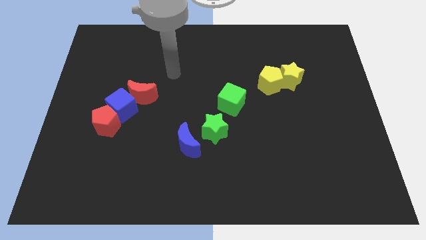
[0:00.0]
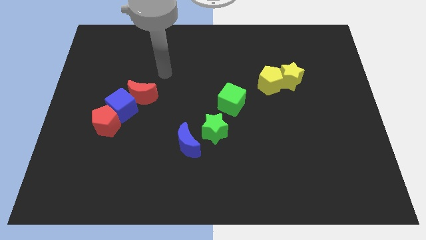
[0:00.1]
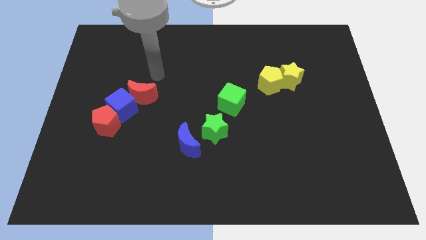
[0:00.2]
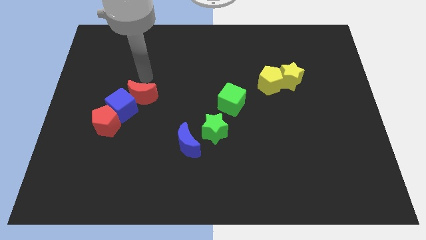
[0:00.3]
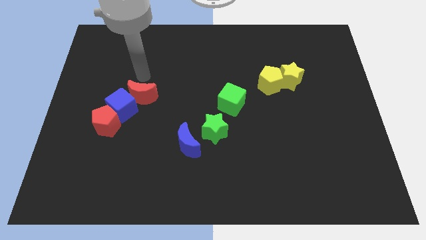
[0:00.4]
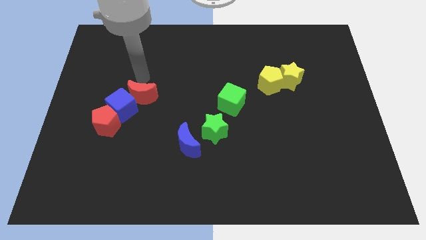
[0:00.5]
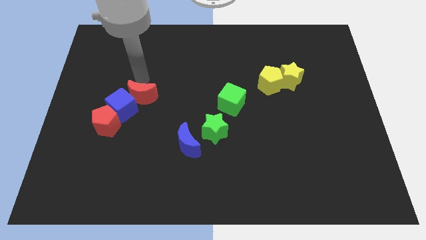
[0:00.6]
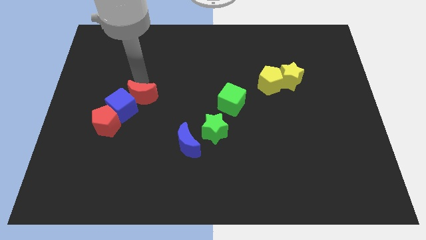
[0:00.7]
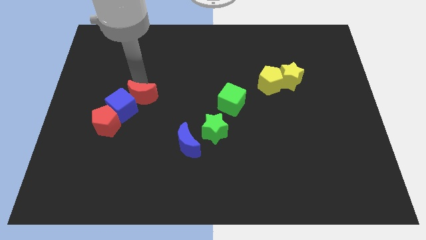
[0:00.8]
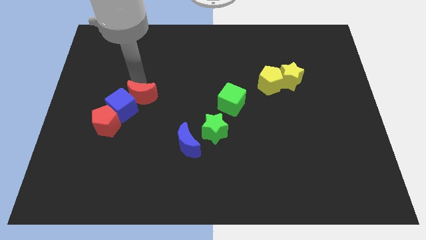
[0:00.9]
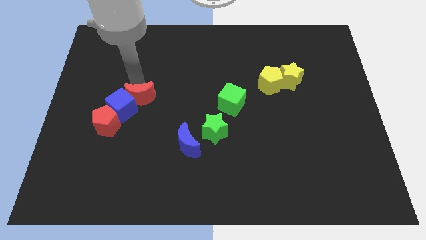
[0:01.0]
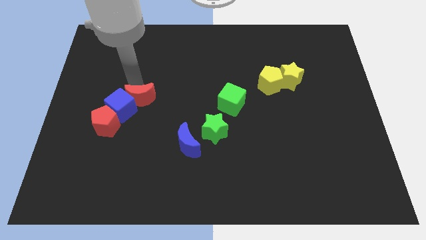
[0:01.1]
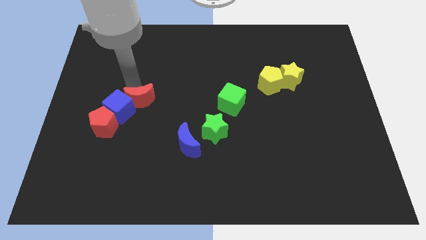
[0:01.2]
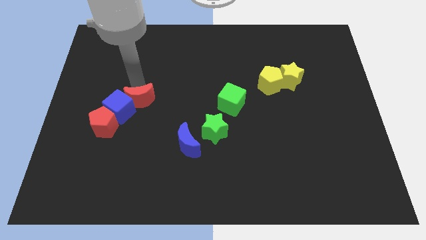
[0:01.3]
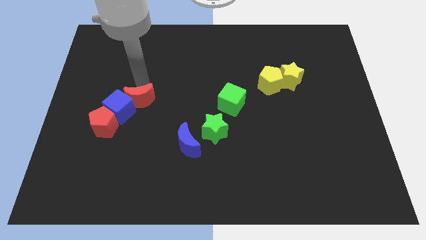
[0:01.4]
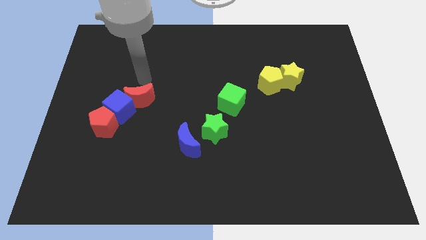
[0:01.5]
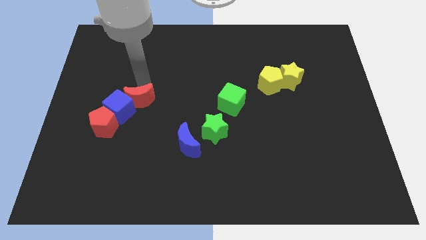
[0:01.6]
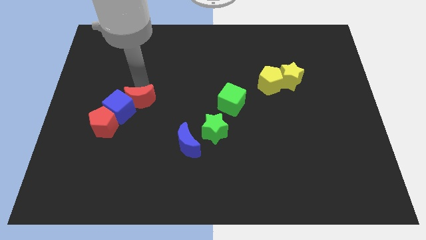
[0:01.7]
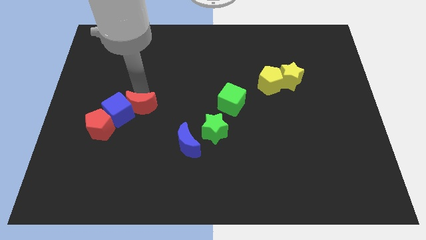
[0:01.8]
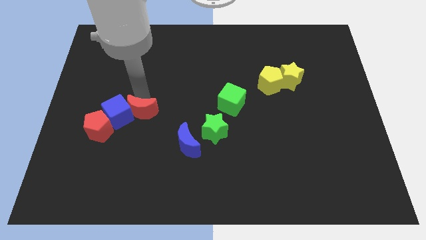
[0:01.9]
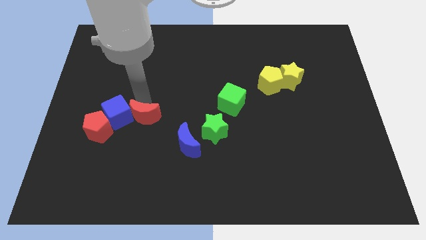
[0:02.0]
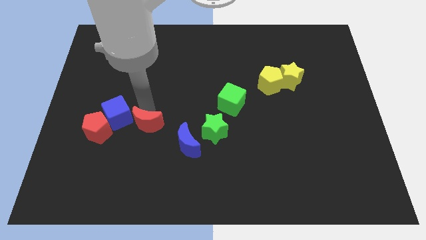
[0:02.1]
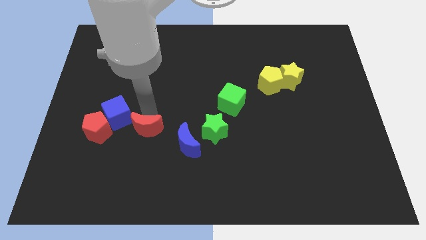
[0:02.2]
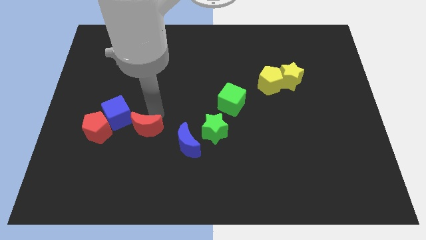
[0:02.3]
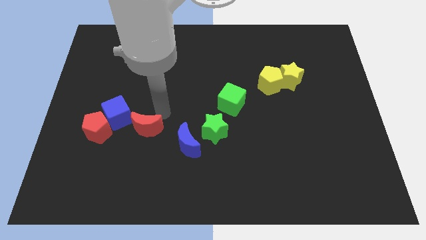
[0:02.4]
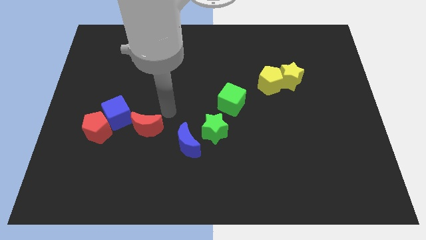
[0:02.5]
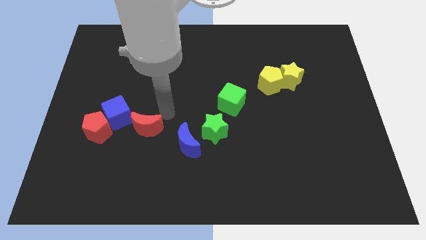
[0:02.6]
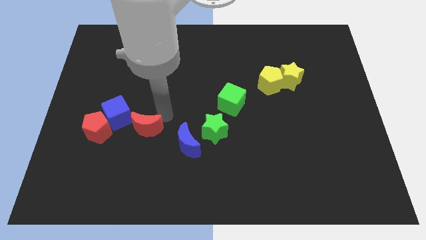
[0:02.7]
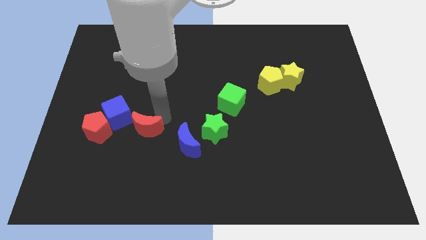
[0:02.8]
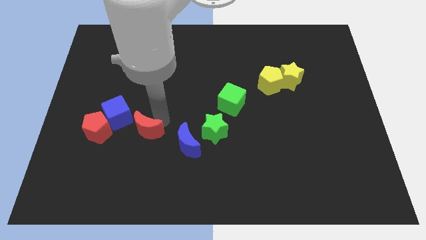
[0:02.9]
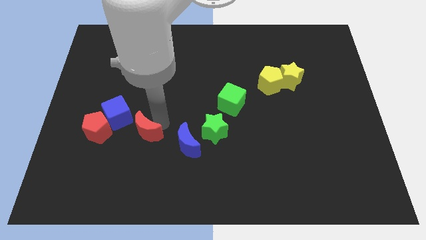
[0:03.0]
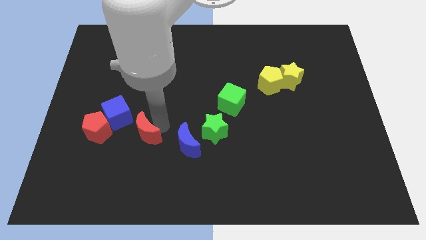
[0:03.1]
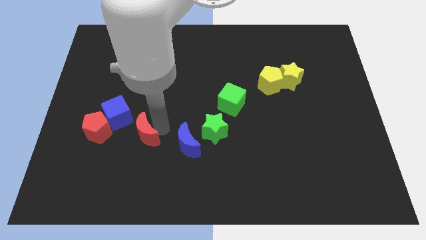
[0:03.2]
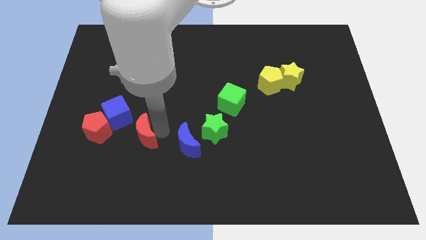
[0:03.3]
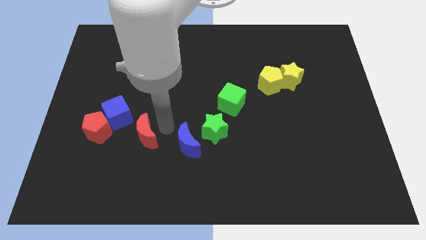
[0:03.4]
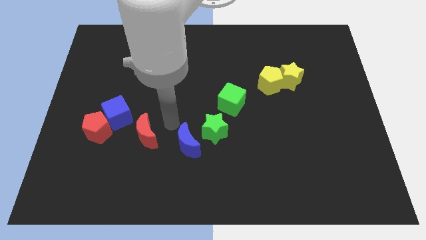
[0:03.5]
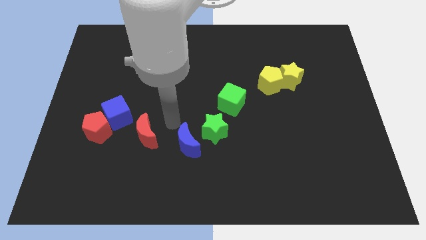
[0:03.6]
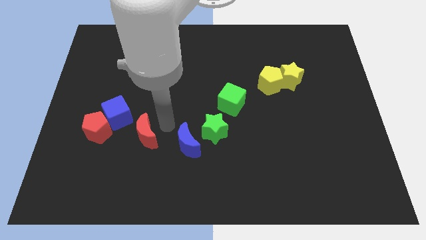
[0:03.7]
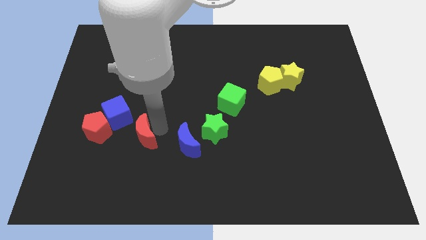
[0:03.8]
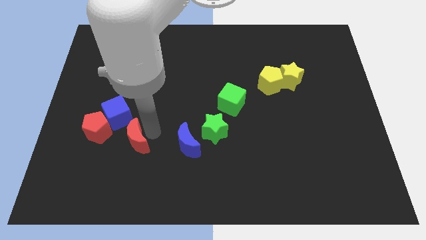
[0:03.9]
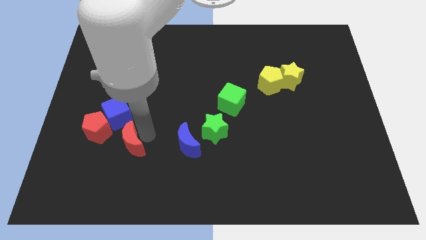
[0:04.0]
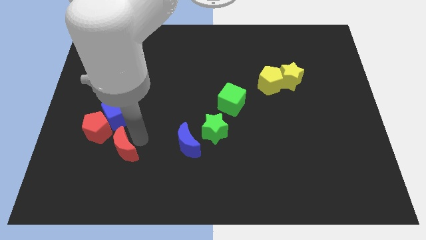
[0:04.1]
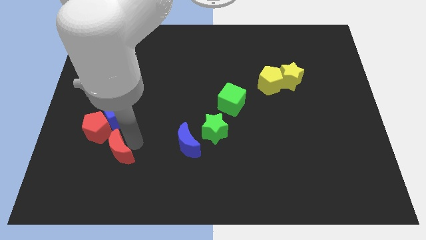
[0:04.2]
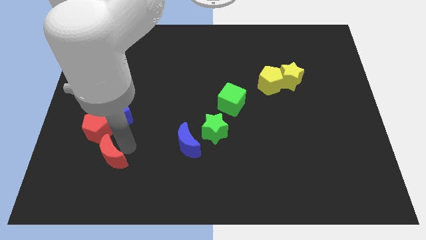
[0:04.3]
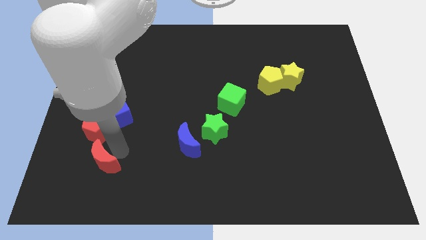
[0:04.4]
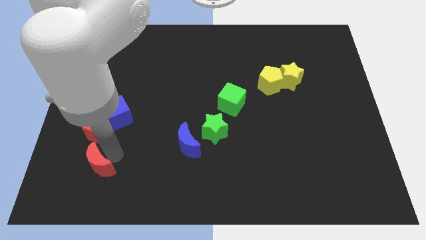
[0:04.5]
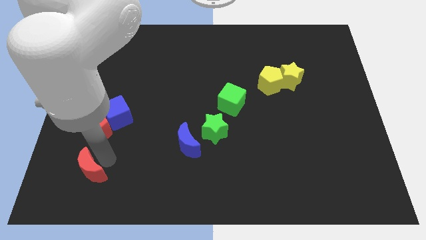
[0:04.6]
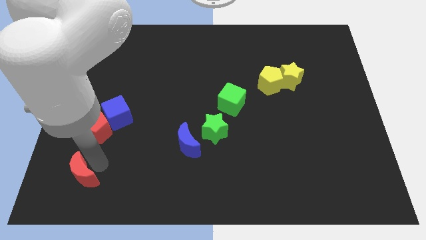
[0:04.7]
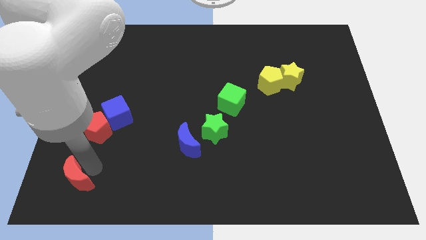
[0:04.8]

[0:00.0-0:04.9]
put the red moon to the bottom left

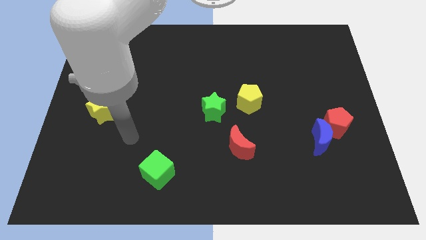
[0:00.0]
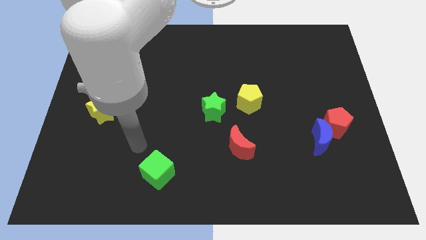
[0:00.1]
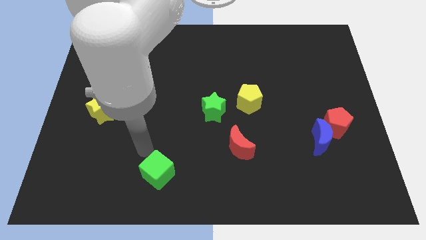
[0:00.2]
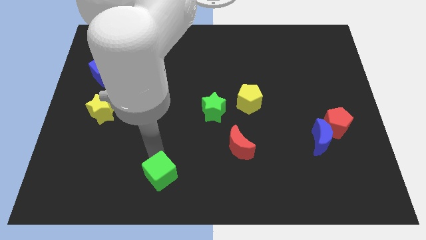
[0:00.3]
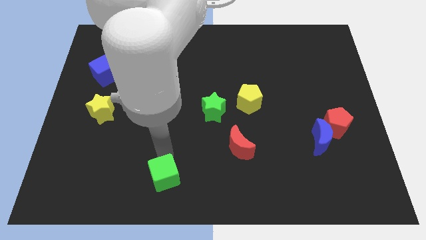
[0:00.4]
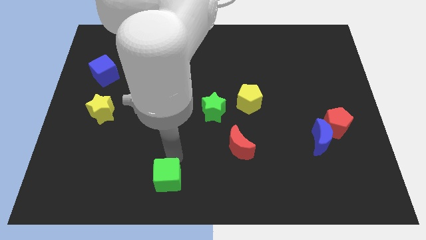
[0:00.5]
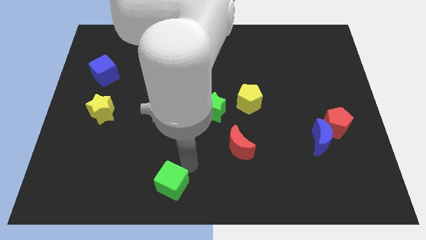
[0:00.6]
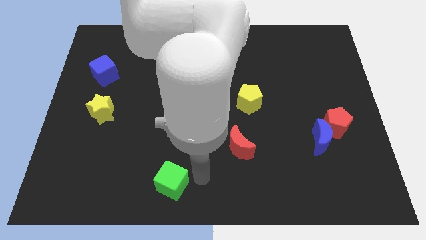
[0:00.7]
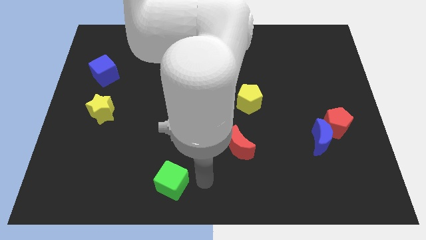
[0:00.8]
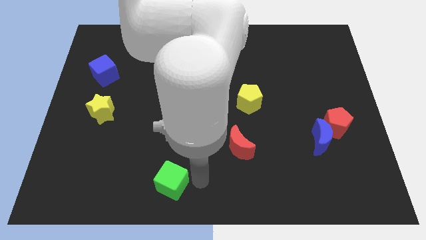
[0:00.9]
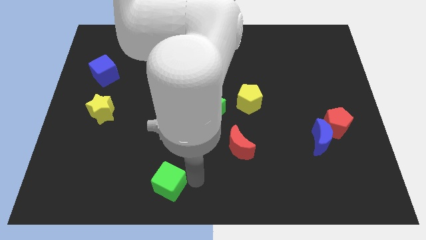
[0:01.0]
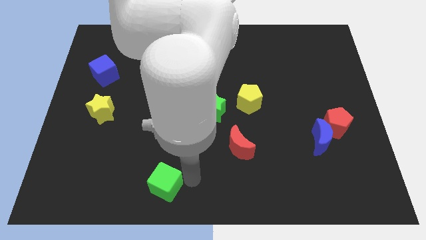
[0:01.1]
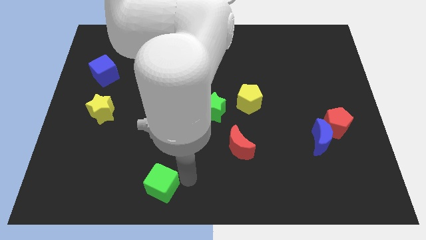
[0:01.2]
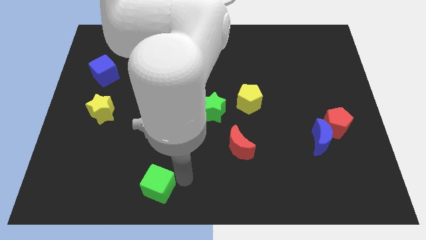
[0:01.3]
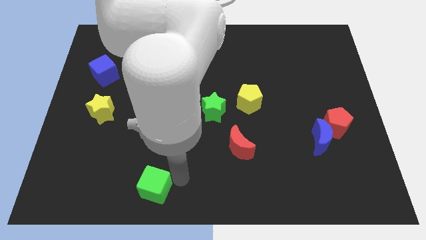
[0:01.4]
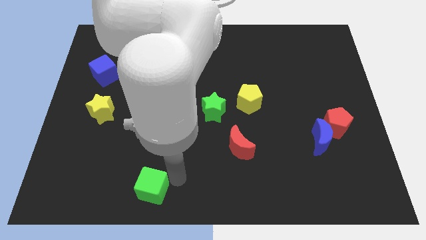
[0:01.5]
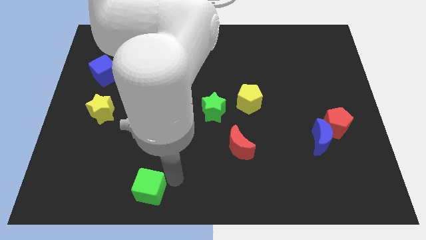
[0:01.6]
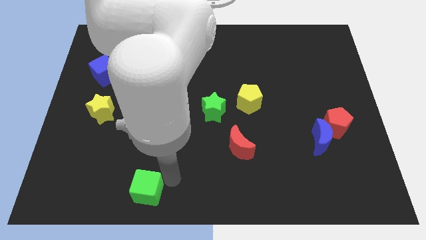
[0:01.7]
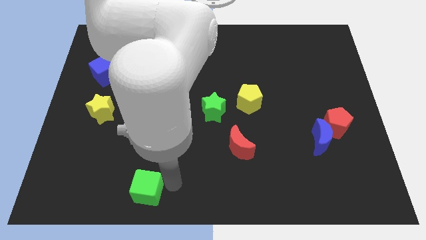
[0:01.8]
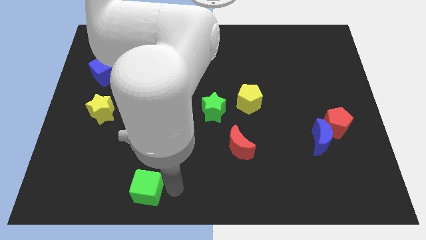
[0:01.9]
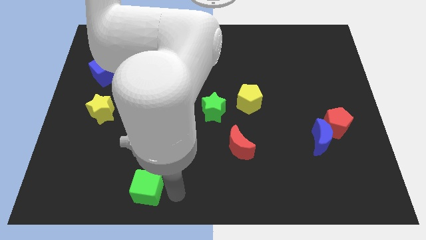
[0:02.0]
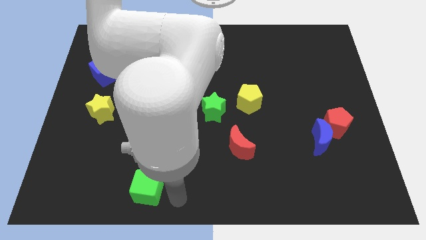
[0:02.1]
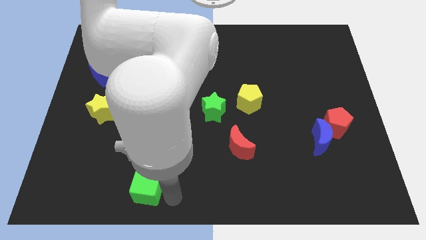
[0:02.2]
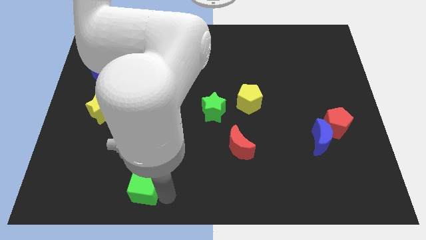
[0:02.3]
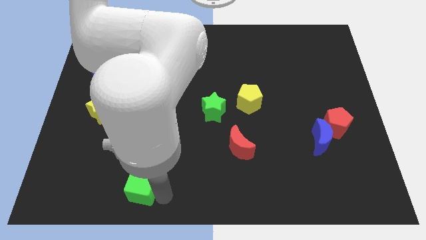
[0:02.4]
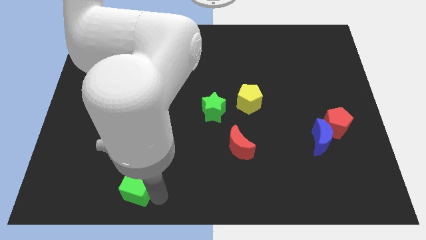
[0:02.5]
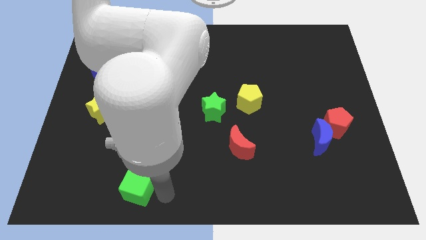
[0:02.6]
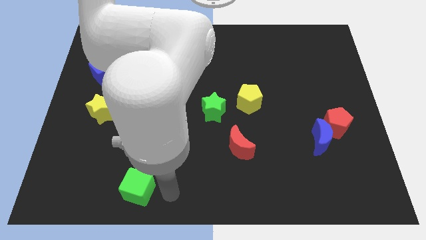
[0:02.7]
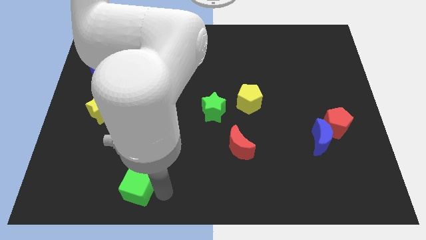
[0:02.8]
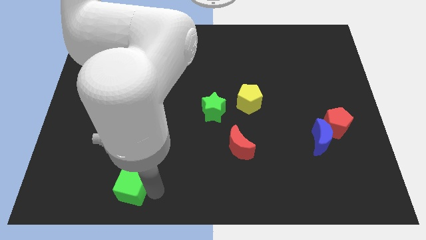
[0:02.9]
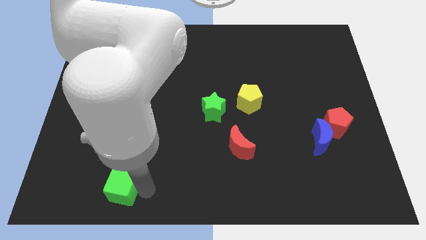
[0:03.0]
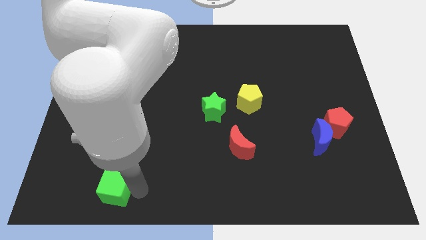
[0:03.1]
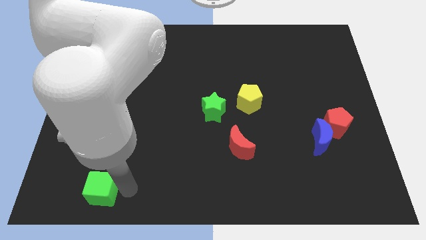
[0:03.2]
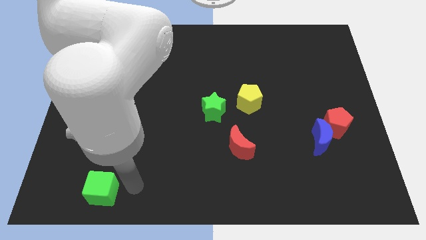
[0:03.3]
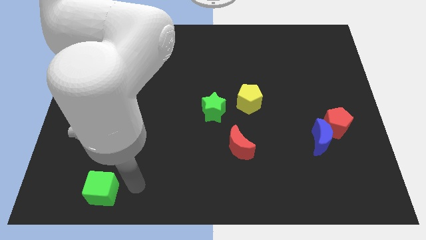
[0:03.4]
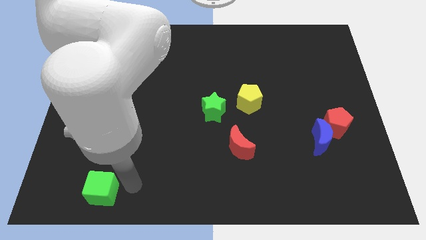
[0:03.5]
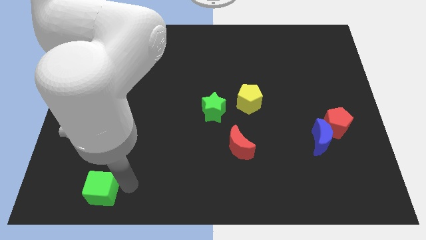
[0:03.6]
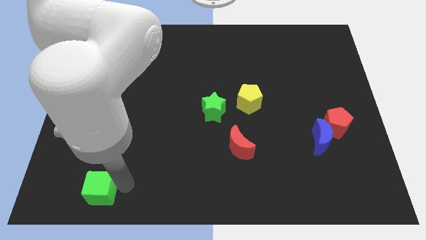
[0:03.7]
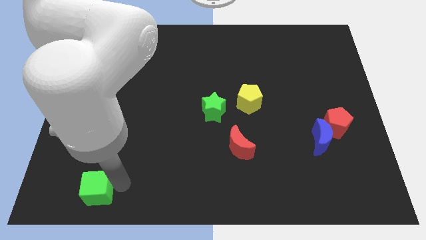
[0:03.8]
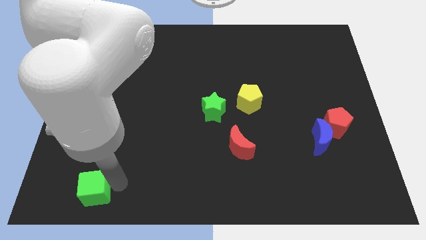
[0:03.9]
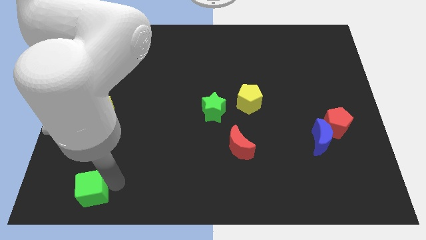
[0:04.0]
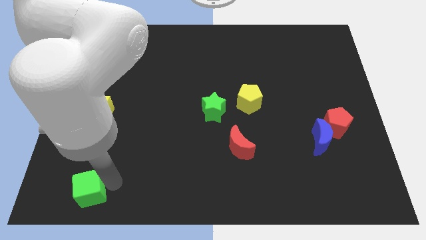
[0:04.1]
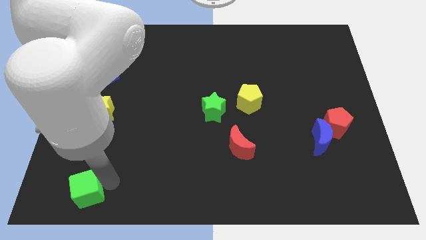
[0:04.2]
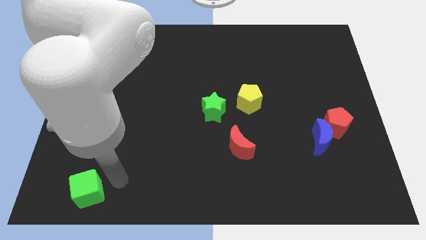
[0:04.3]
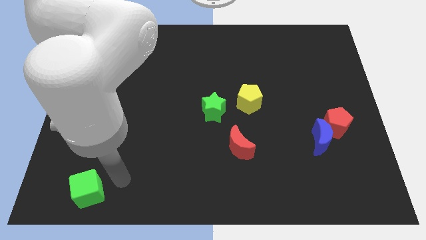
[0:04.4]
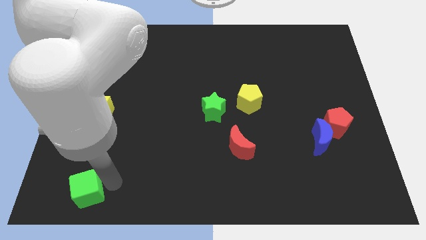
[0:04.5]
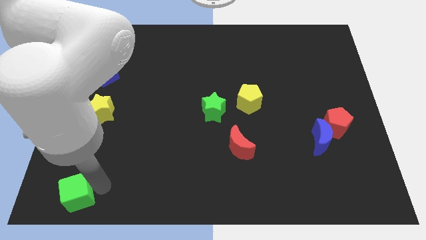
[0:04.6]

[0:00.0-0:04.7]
push the green cube to the bottom left corner
